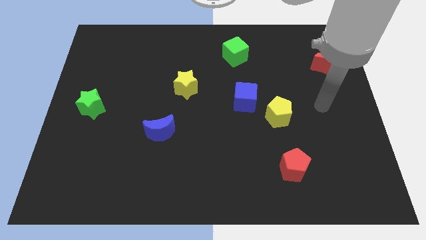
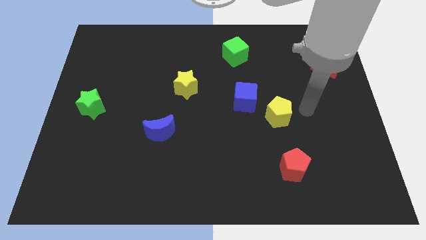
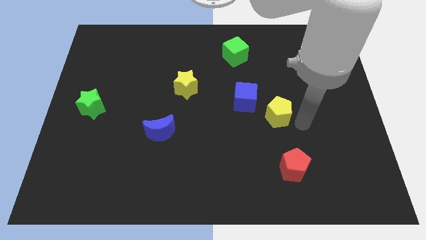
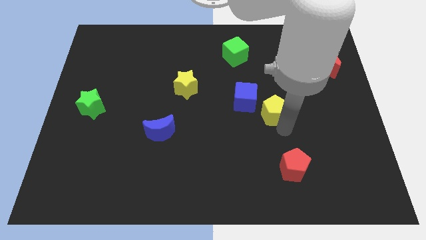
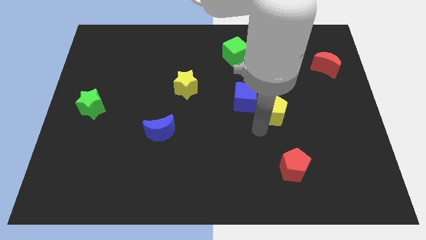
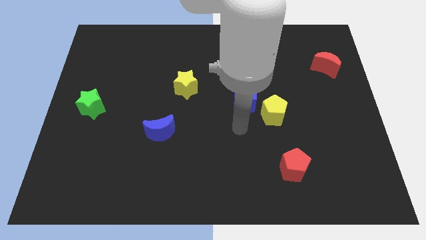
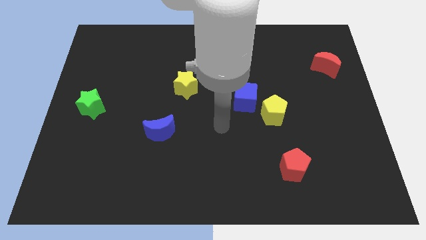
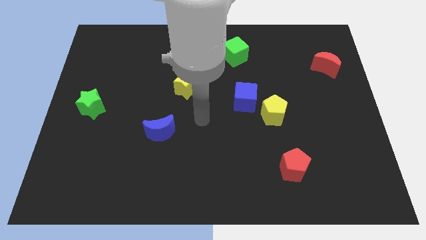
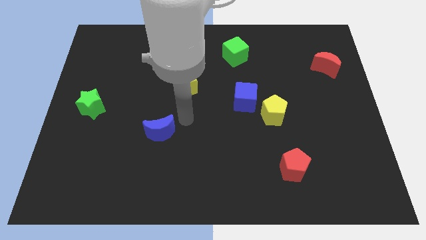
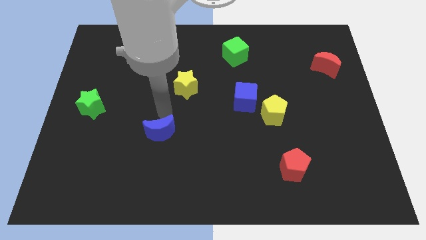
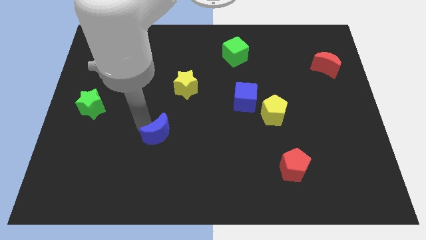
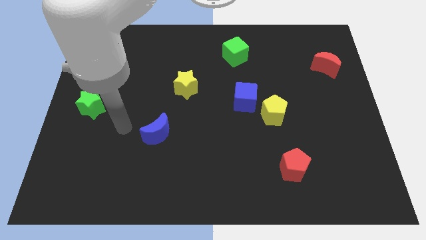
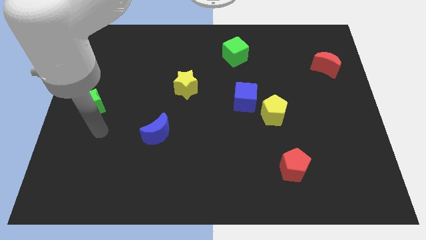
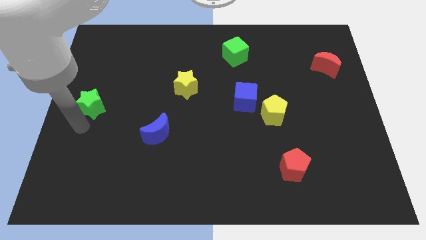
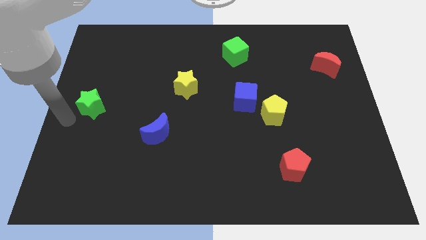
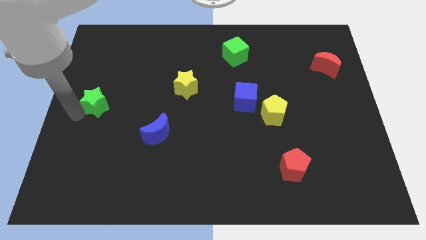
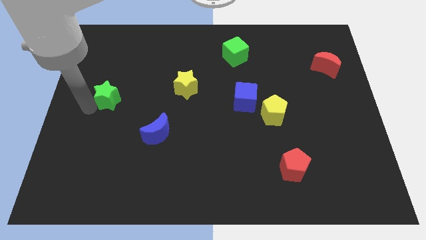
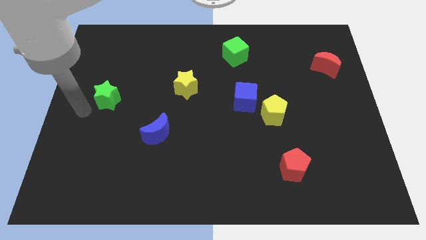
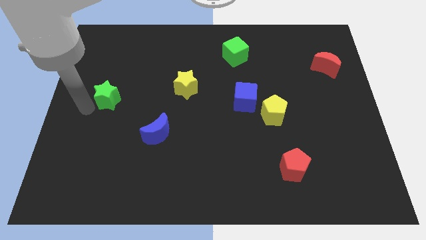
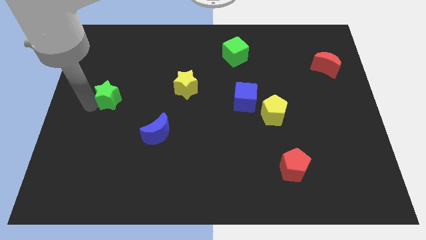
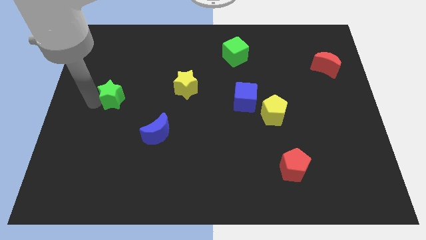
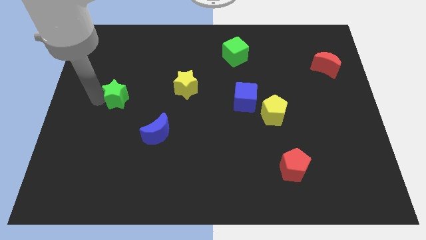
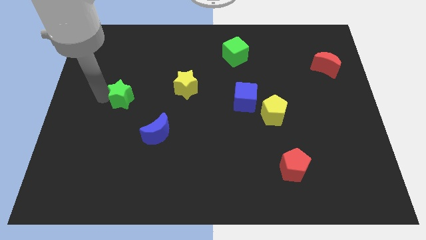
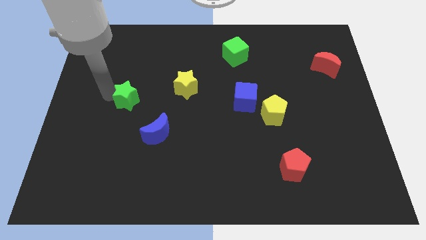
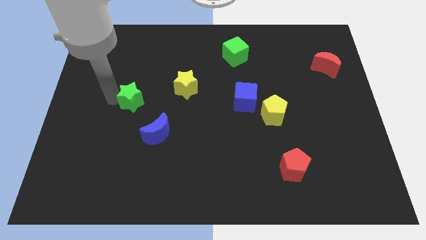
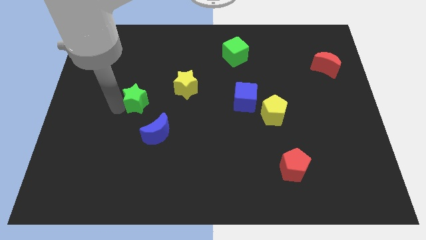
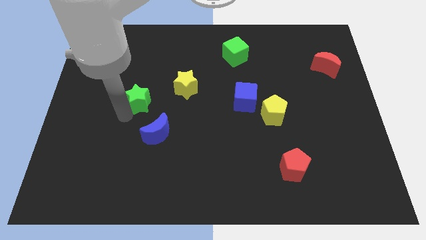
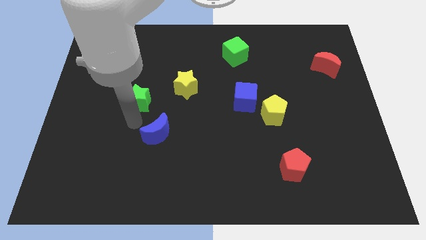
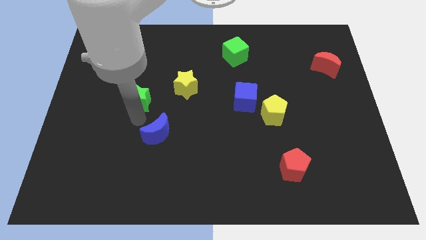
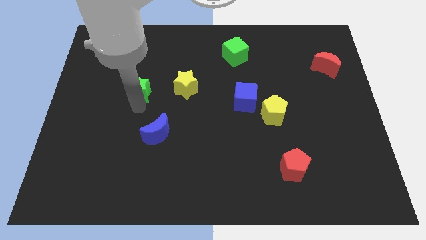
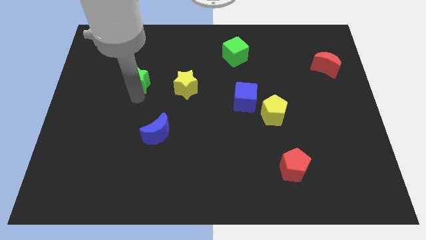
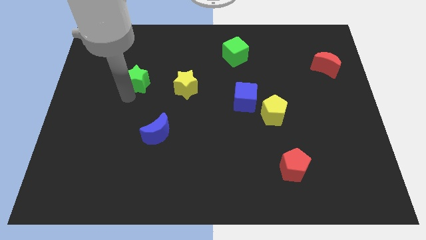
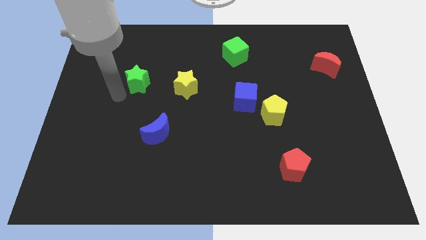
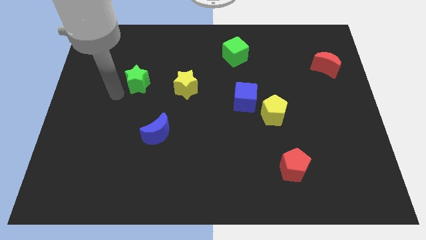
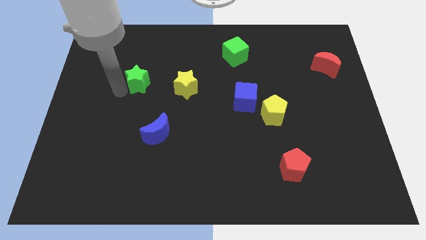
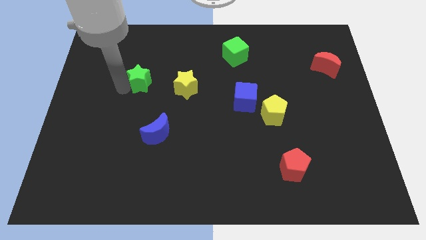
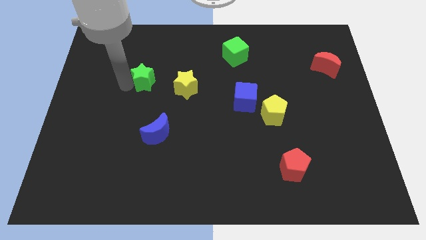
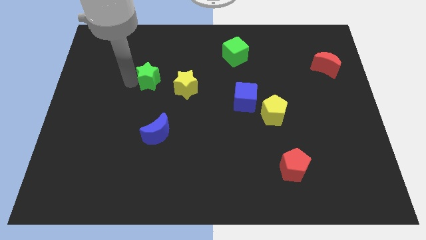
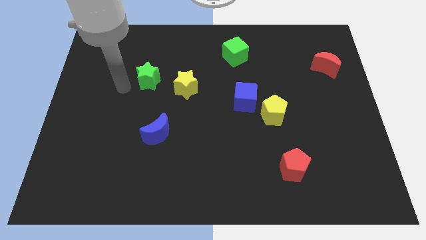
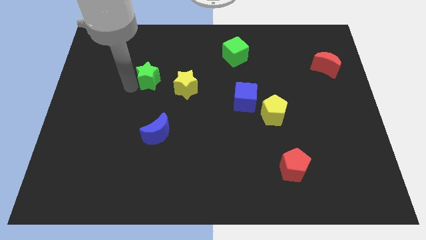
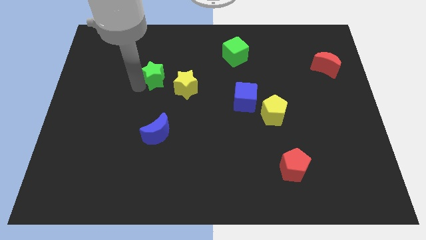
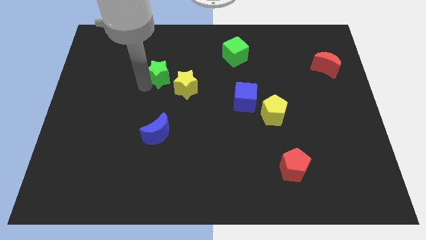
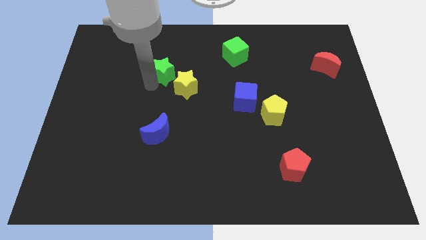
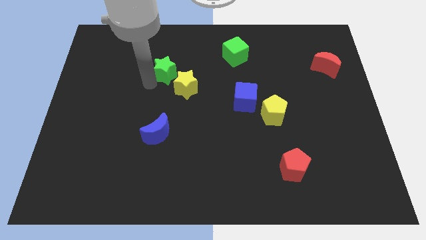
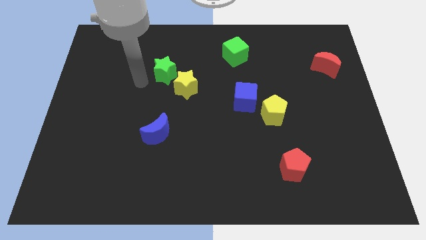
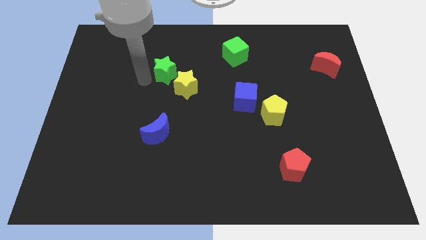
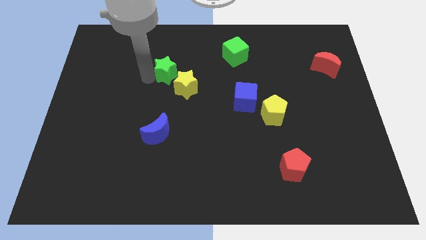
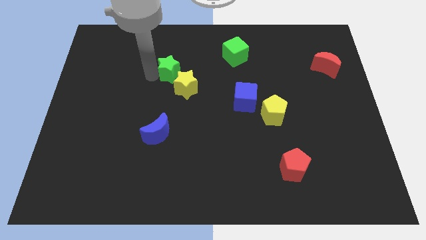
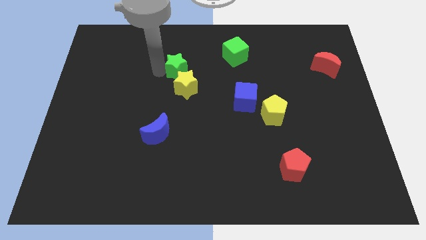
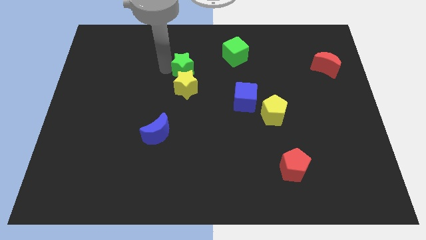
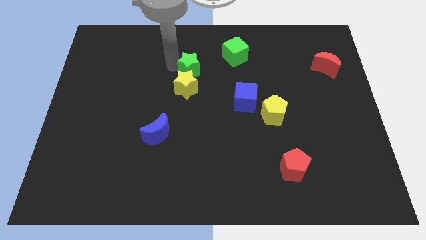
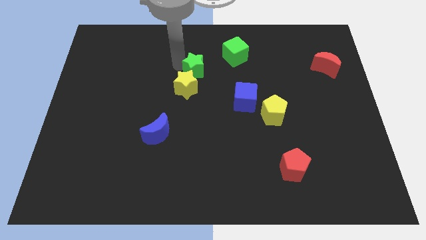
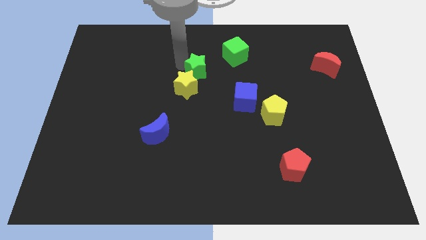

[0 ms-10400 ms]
move the green star diagonally down and to the left of the green cube

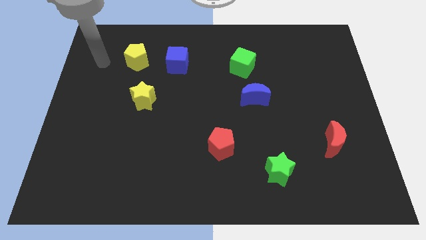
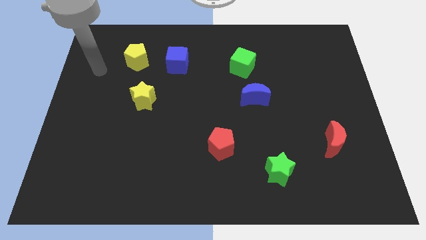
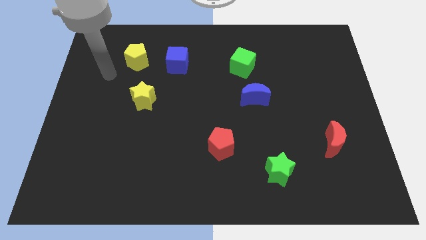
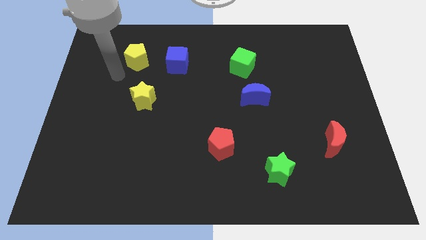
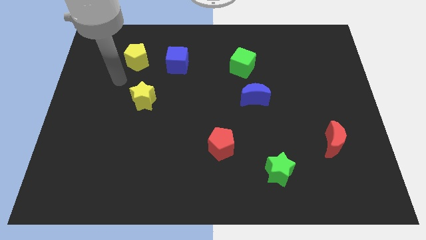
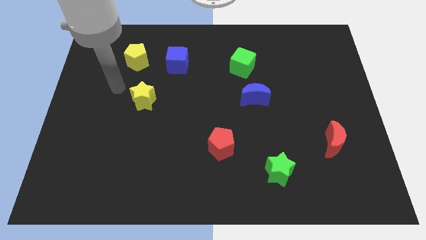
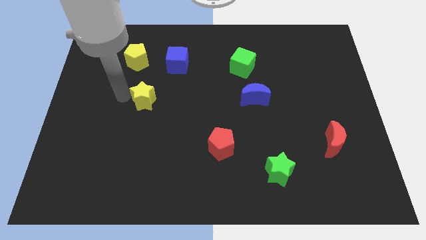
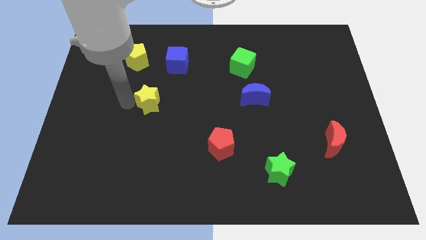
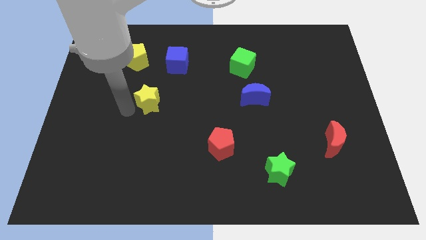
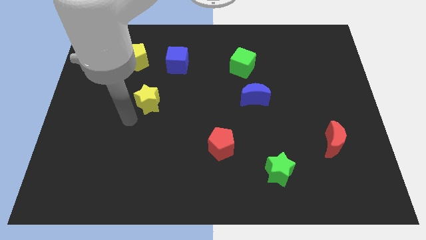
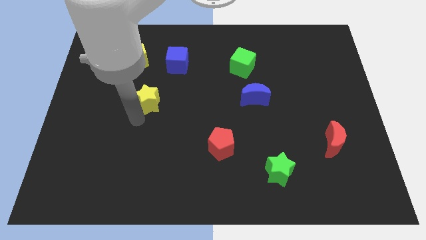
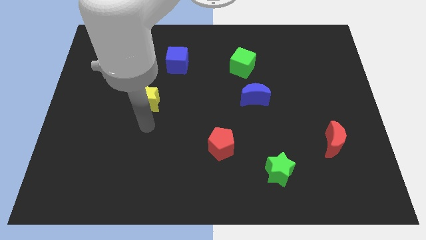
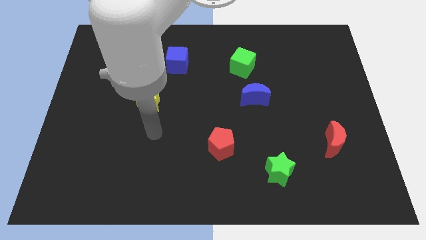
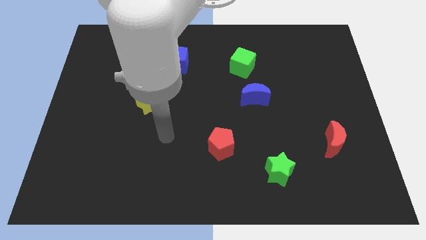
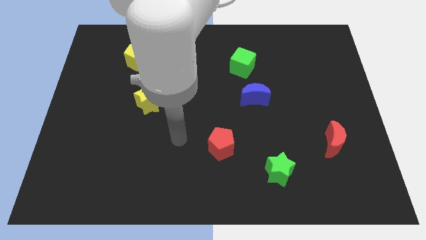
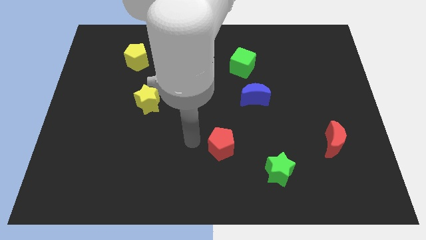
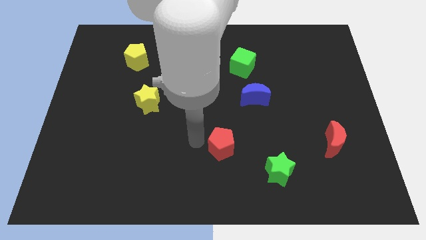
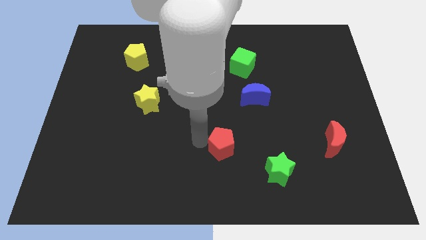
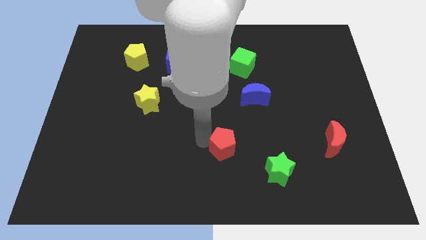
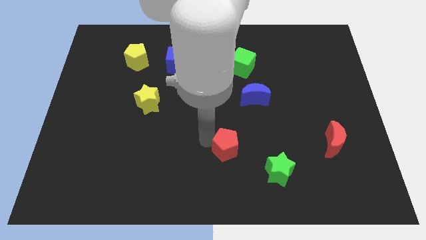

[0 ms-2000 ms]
move the red pentagon diagonally up and to the left of the green star
